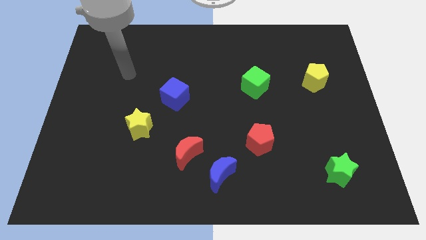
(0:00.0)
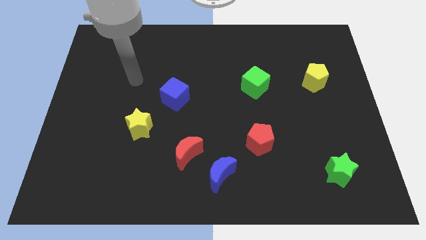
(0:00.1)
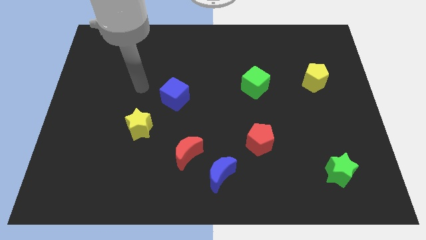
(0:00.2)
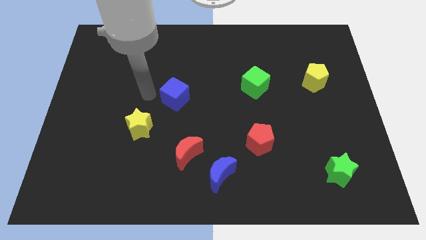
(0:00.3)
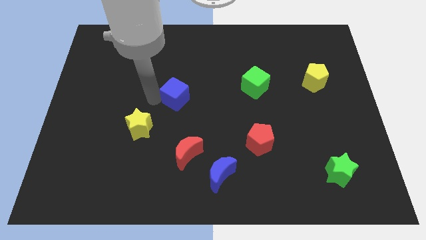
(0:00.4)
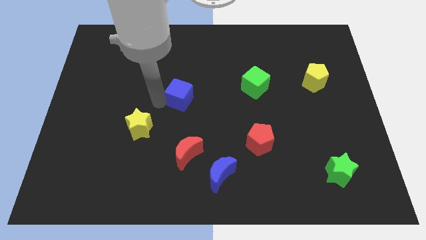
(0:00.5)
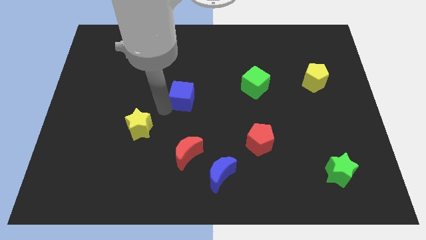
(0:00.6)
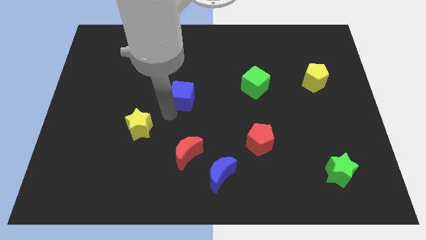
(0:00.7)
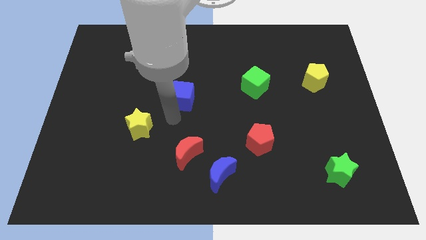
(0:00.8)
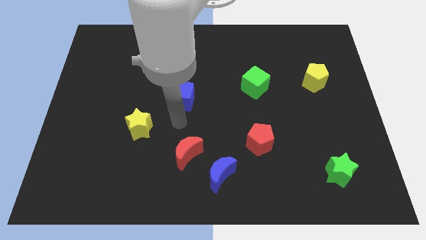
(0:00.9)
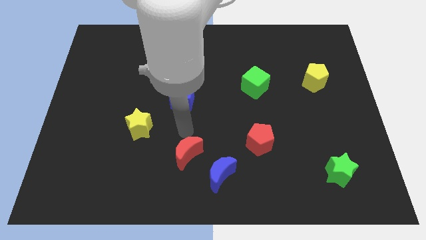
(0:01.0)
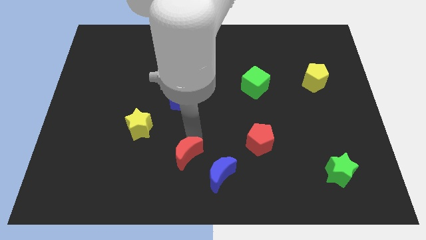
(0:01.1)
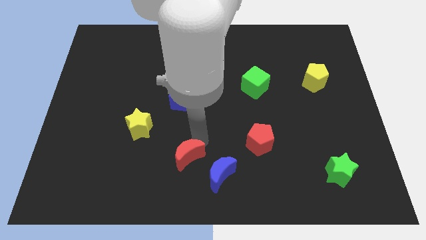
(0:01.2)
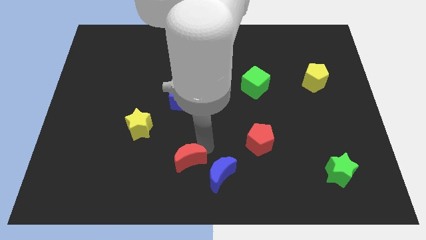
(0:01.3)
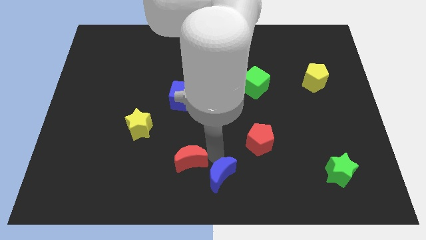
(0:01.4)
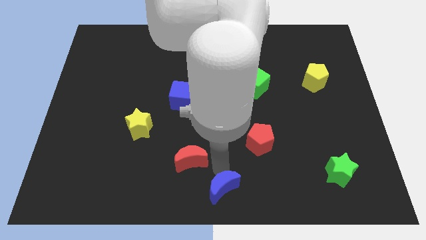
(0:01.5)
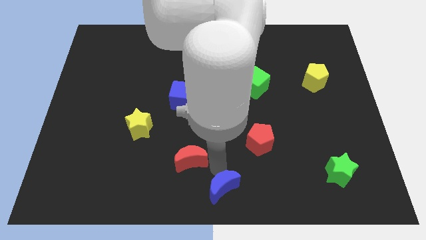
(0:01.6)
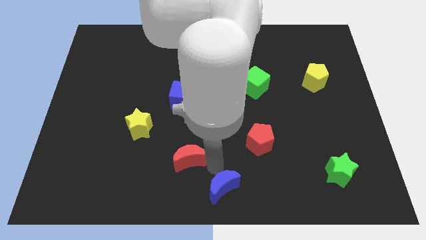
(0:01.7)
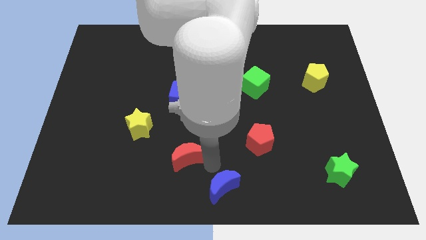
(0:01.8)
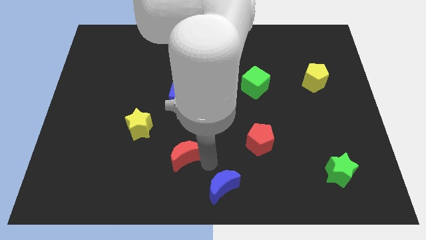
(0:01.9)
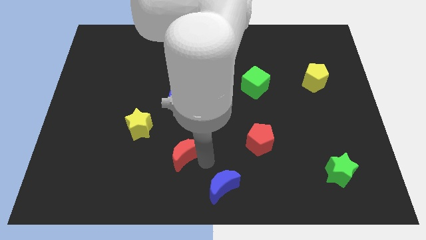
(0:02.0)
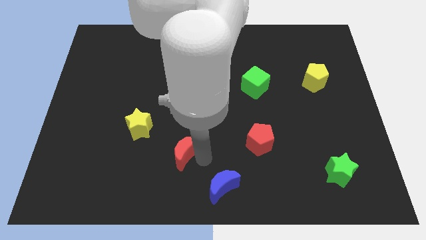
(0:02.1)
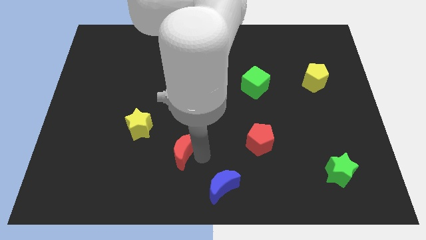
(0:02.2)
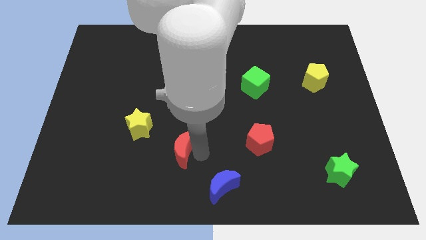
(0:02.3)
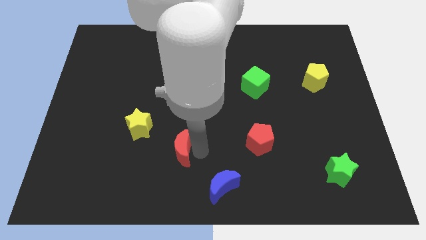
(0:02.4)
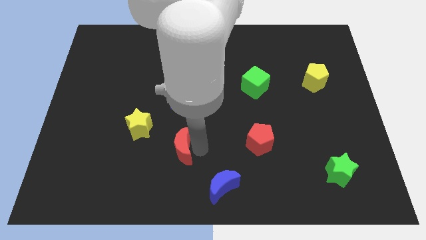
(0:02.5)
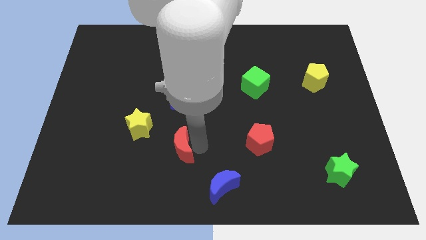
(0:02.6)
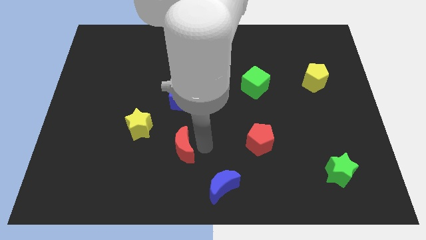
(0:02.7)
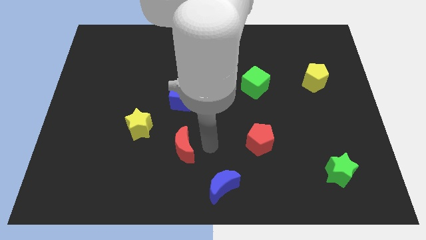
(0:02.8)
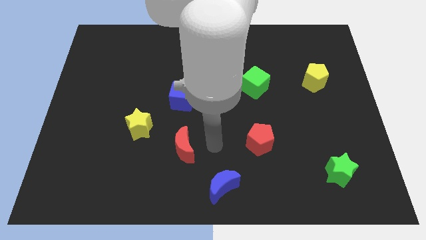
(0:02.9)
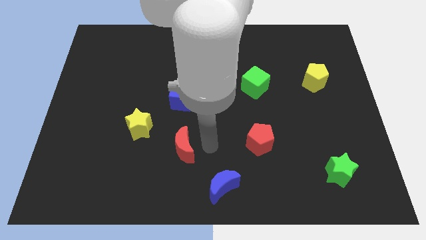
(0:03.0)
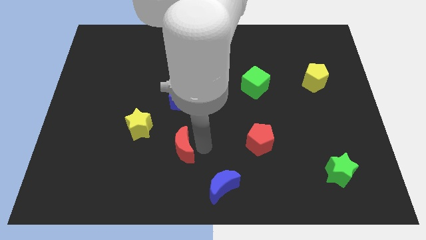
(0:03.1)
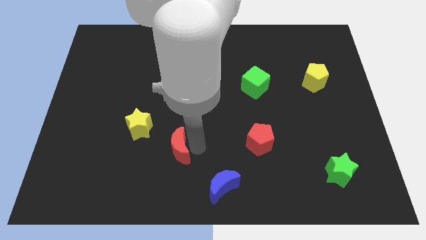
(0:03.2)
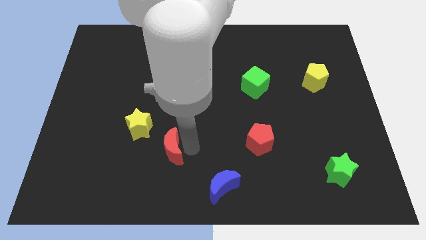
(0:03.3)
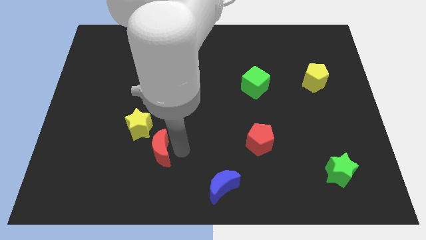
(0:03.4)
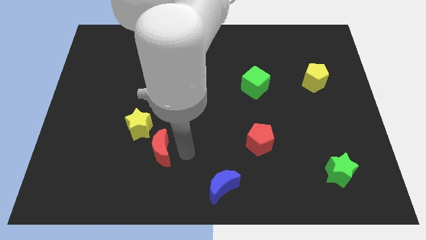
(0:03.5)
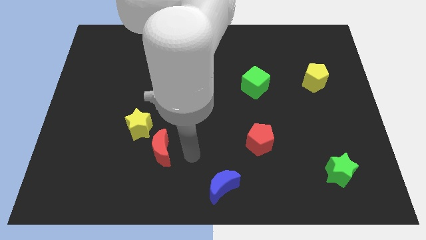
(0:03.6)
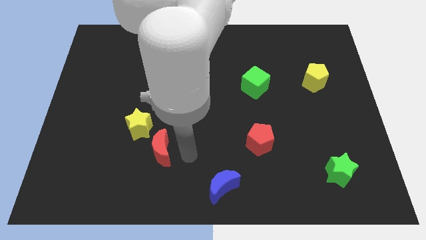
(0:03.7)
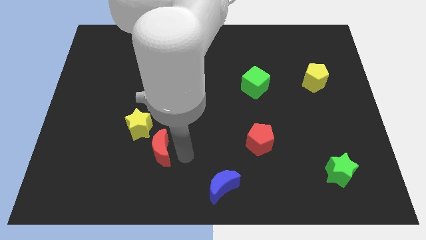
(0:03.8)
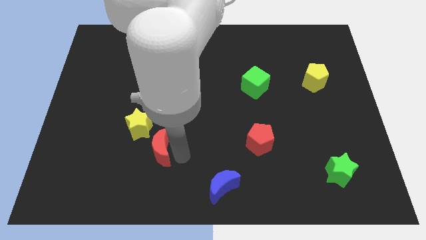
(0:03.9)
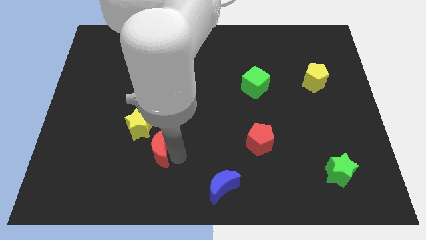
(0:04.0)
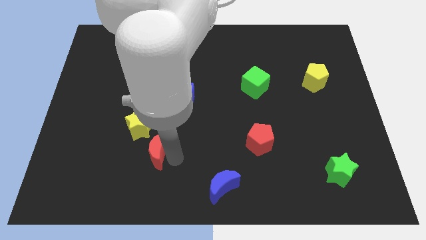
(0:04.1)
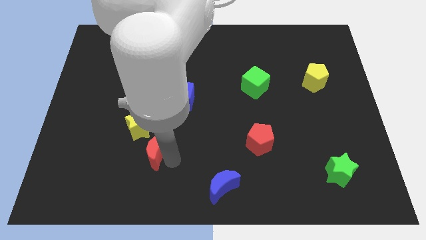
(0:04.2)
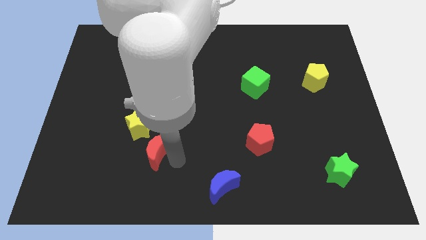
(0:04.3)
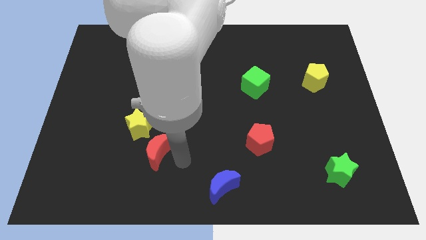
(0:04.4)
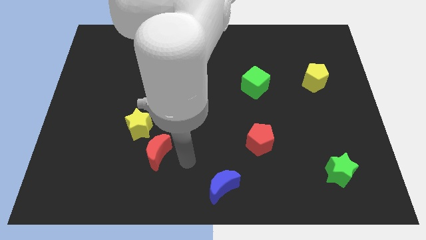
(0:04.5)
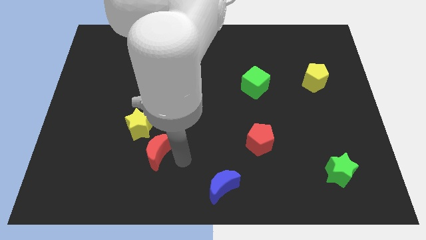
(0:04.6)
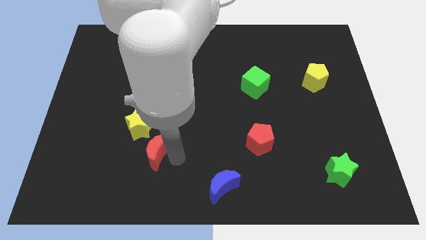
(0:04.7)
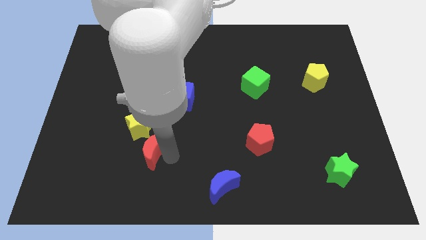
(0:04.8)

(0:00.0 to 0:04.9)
slightly slide the red moon left

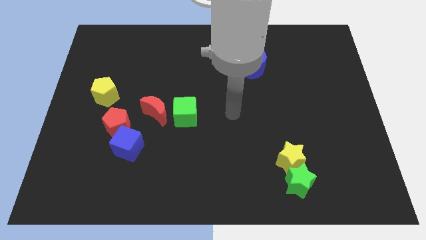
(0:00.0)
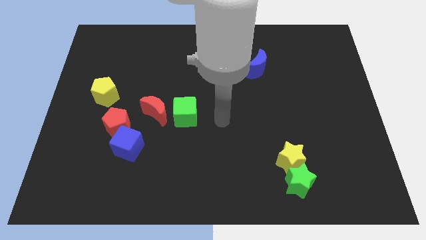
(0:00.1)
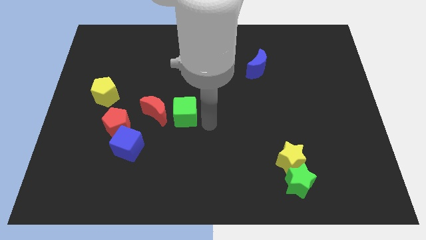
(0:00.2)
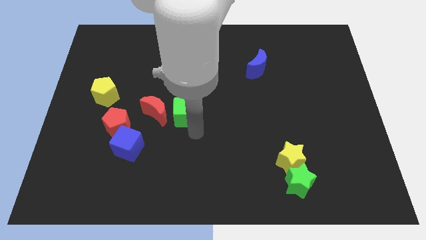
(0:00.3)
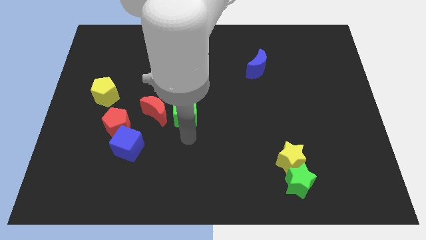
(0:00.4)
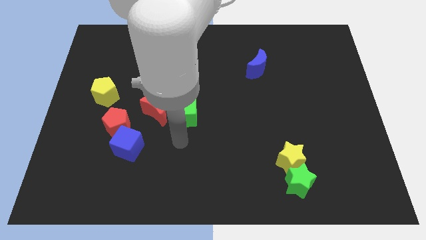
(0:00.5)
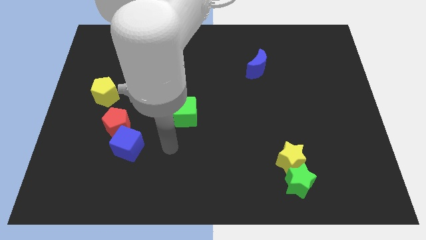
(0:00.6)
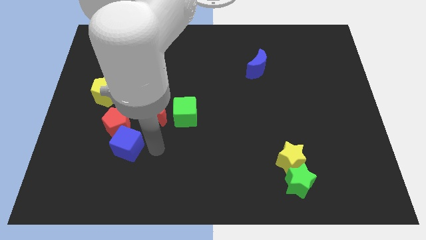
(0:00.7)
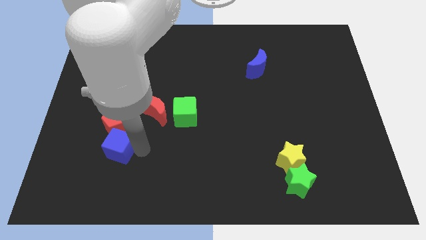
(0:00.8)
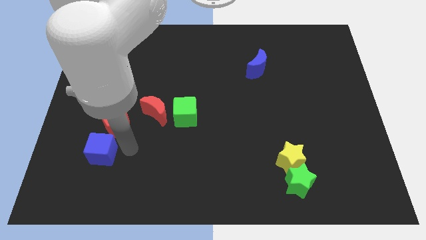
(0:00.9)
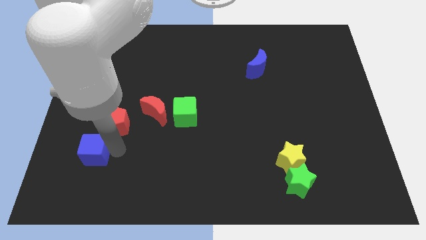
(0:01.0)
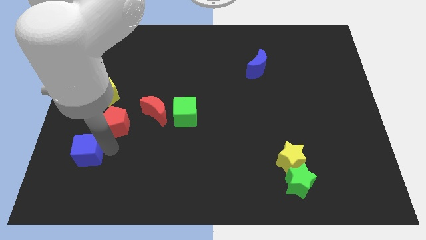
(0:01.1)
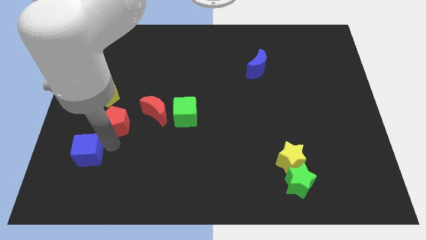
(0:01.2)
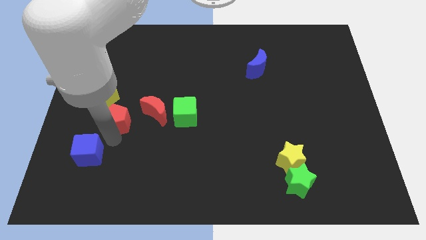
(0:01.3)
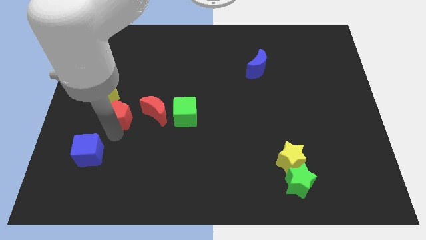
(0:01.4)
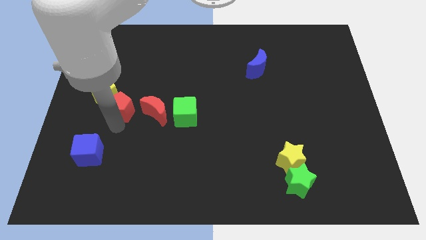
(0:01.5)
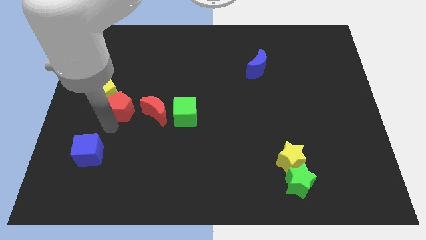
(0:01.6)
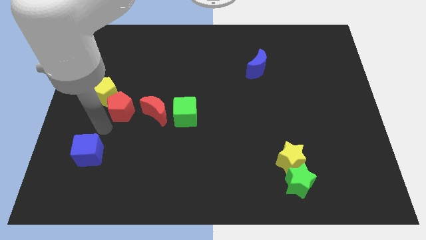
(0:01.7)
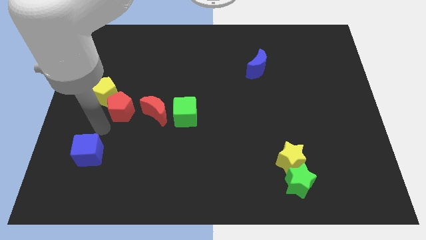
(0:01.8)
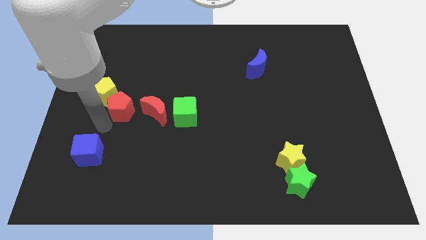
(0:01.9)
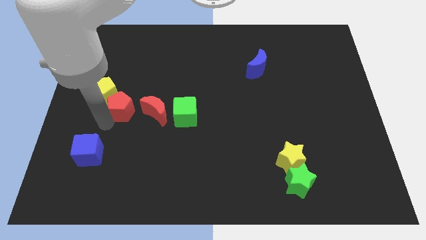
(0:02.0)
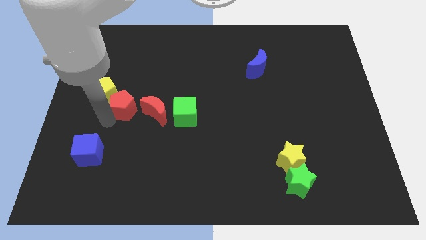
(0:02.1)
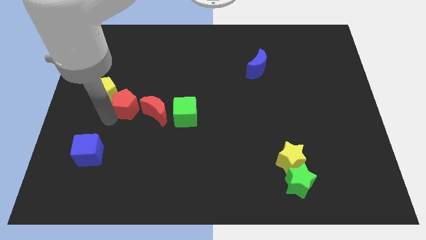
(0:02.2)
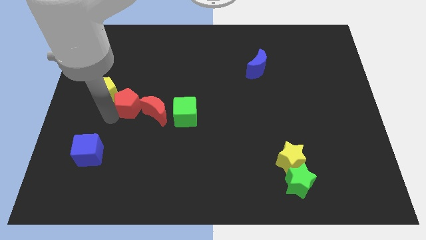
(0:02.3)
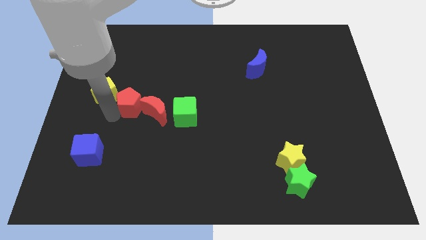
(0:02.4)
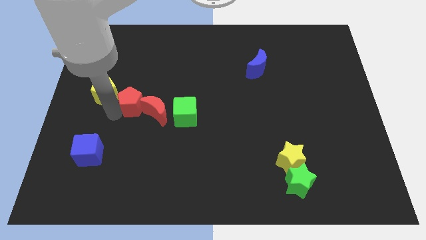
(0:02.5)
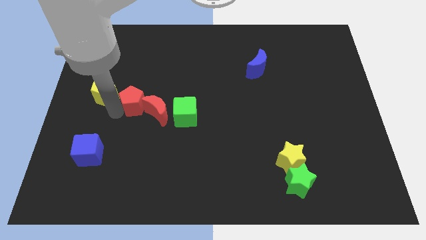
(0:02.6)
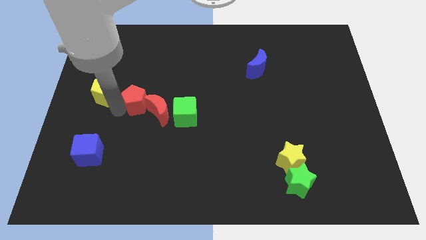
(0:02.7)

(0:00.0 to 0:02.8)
slightly push the red pentagon upwards and then right

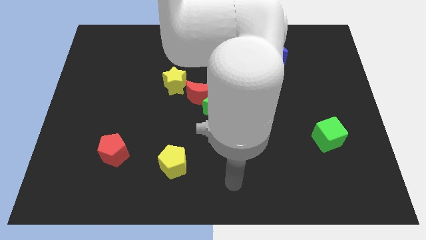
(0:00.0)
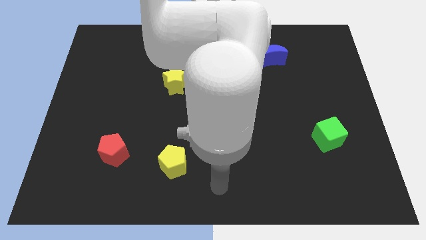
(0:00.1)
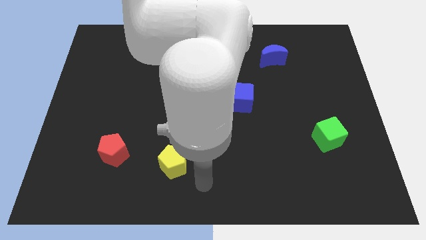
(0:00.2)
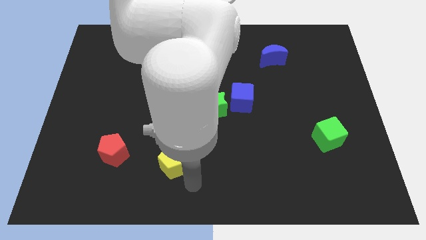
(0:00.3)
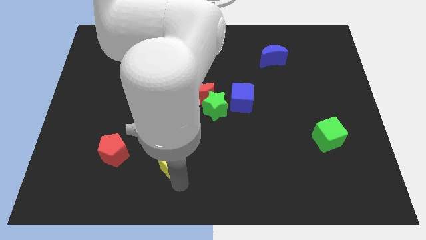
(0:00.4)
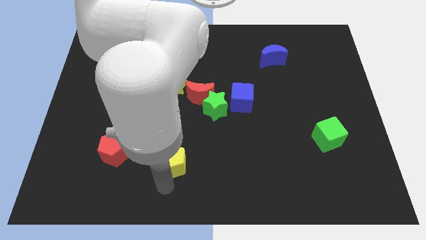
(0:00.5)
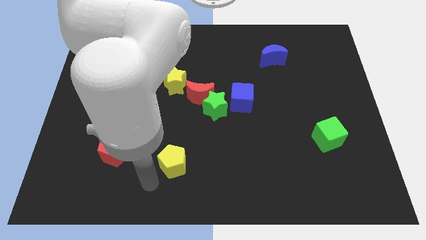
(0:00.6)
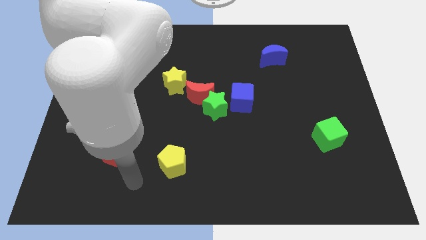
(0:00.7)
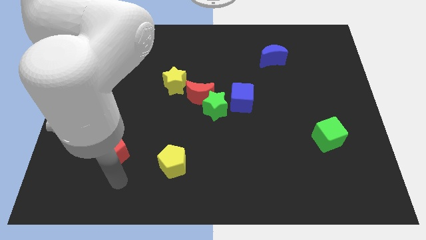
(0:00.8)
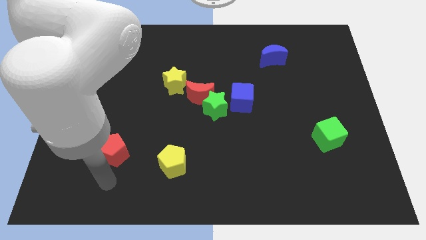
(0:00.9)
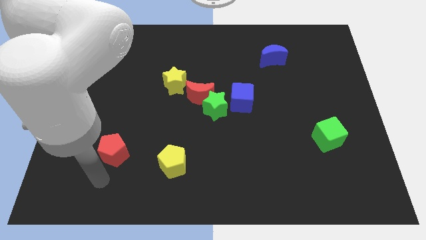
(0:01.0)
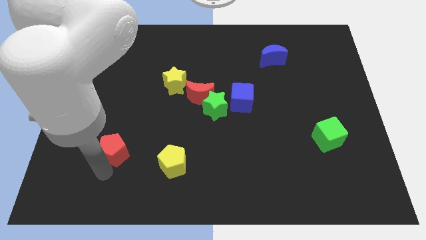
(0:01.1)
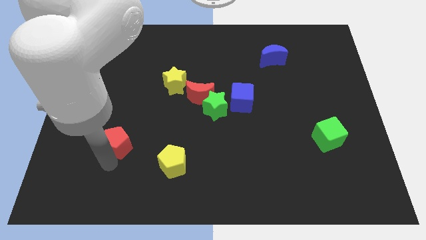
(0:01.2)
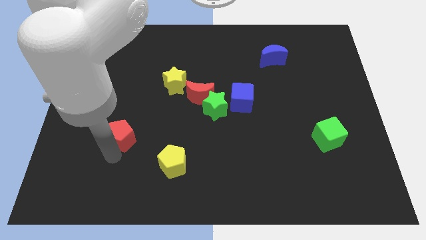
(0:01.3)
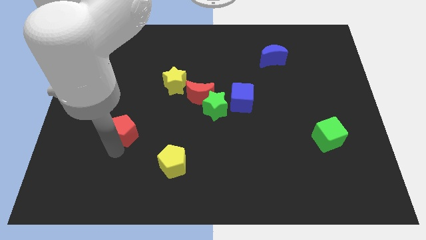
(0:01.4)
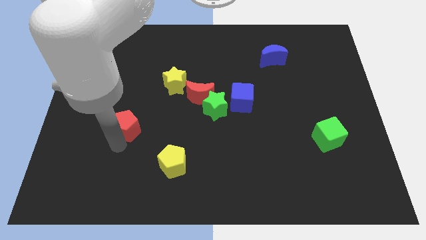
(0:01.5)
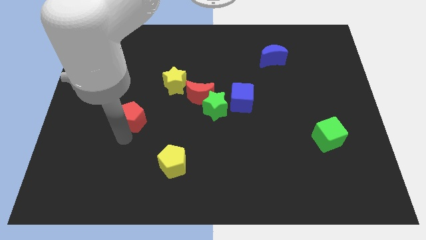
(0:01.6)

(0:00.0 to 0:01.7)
push the red pentagon slightly up
